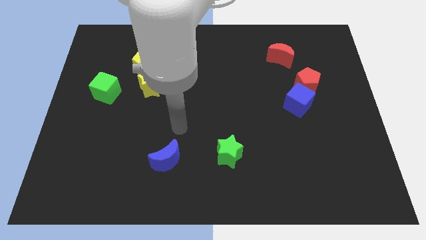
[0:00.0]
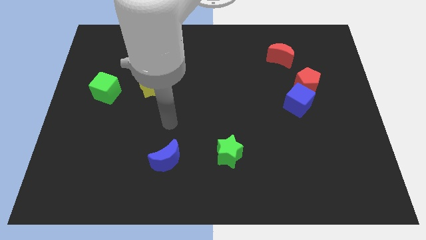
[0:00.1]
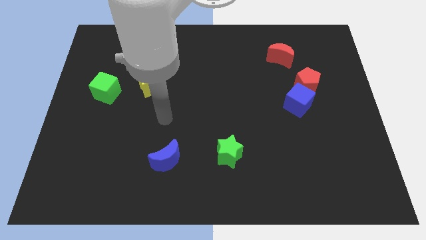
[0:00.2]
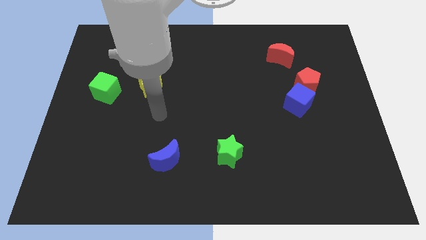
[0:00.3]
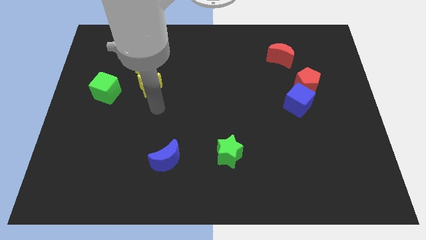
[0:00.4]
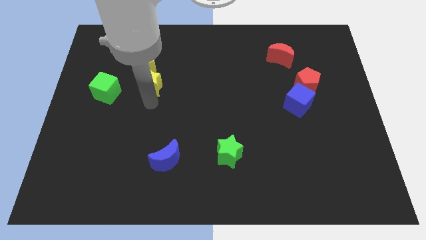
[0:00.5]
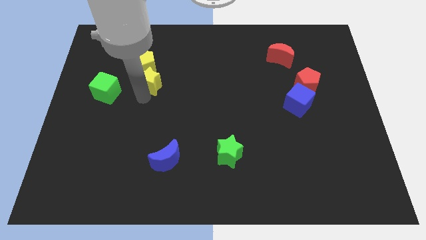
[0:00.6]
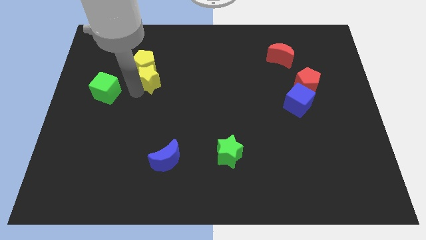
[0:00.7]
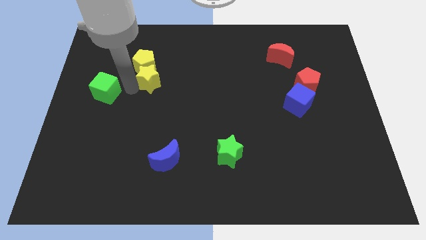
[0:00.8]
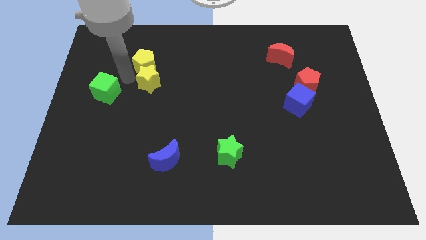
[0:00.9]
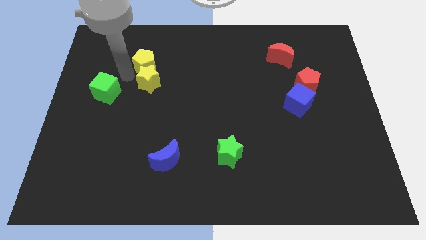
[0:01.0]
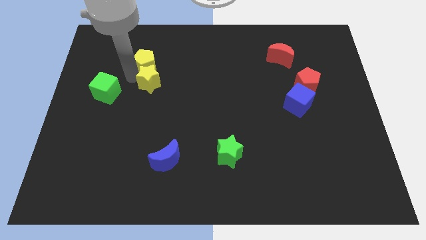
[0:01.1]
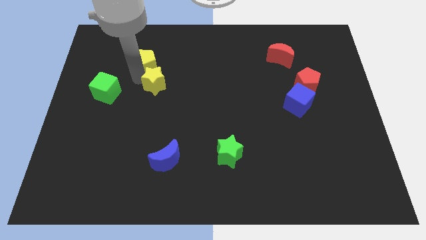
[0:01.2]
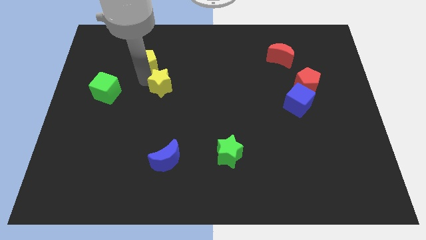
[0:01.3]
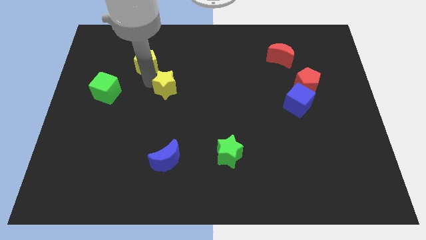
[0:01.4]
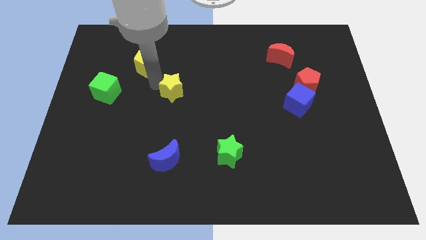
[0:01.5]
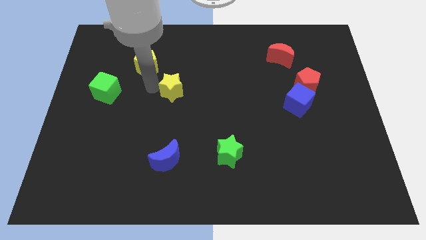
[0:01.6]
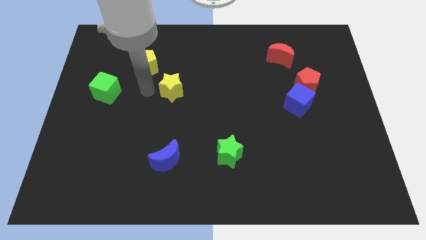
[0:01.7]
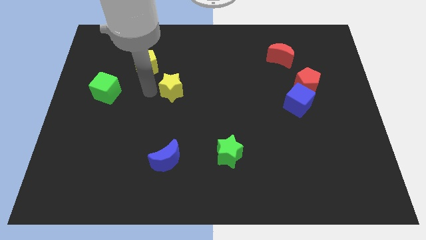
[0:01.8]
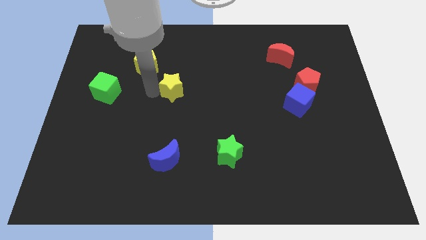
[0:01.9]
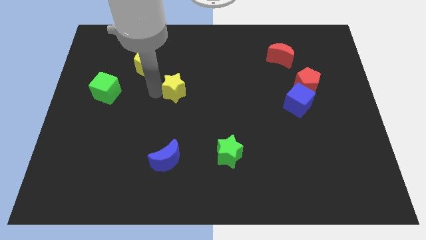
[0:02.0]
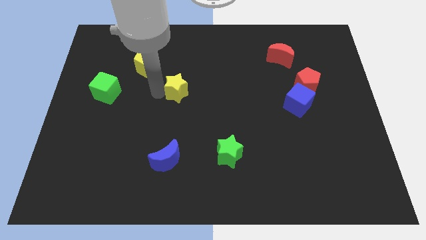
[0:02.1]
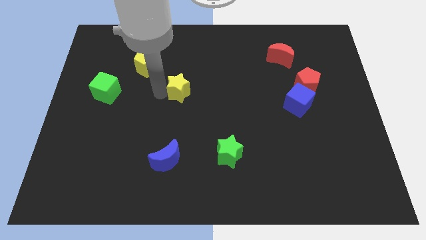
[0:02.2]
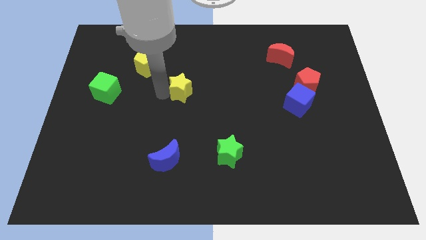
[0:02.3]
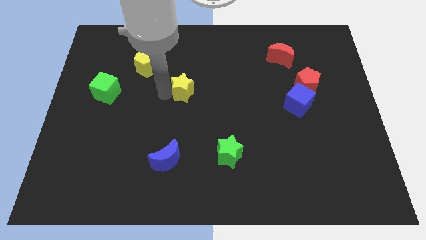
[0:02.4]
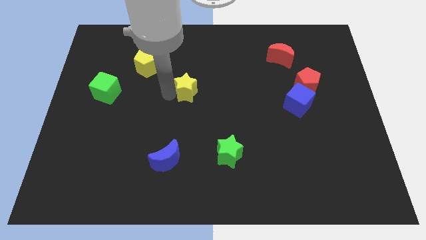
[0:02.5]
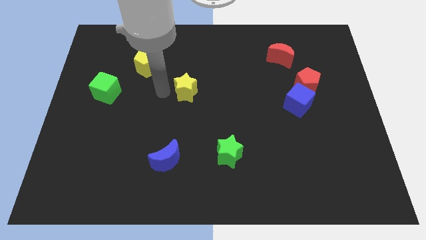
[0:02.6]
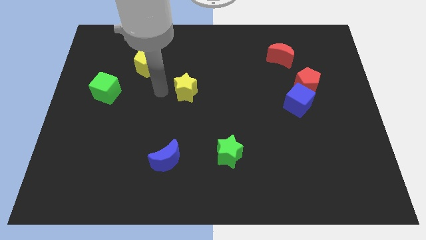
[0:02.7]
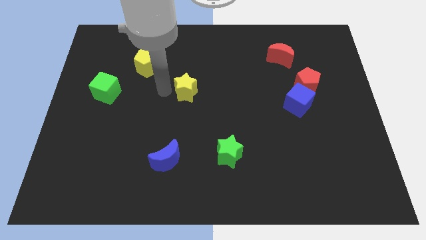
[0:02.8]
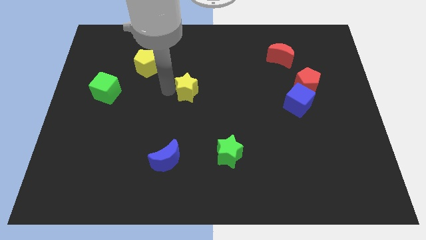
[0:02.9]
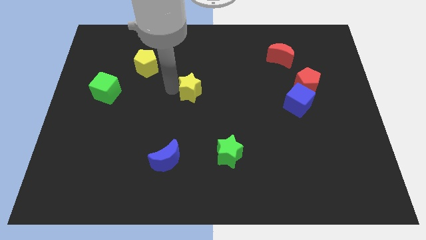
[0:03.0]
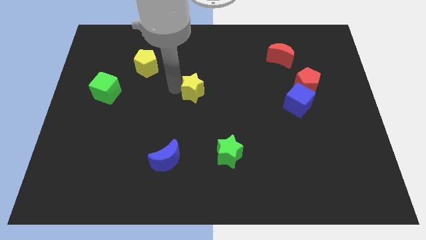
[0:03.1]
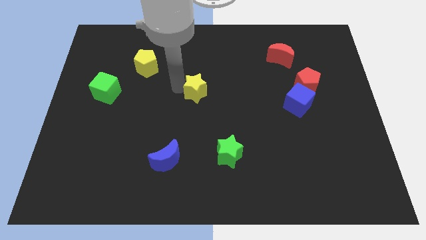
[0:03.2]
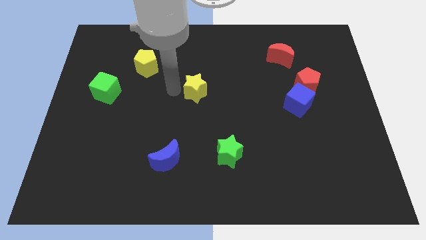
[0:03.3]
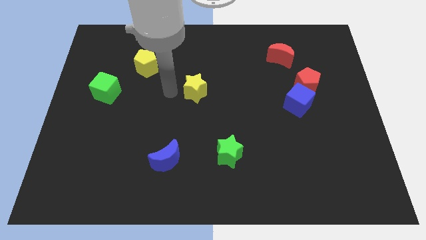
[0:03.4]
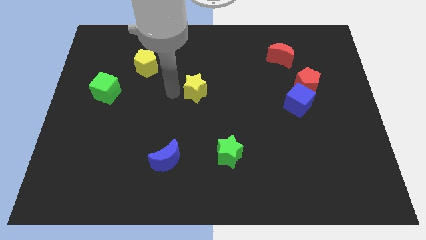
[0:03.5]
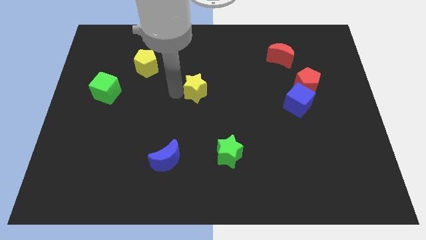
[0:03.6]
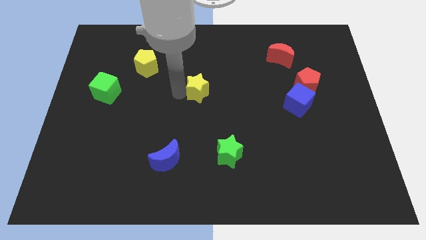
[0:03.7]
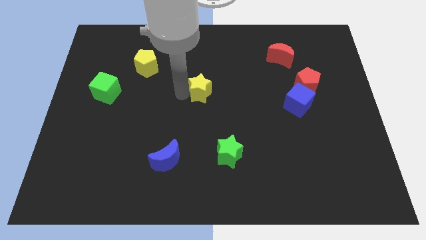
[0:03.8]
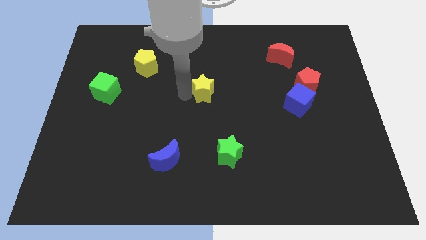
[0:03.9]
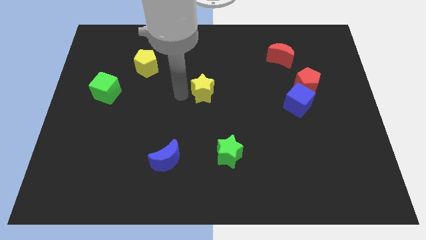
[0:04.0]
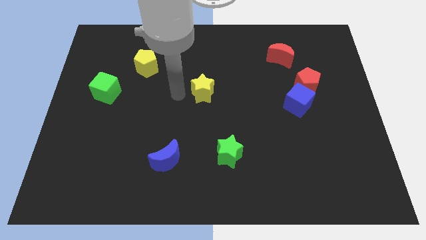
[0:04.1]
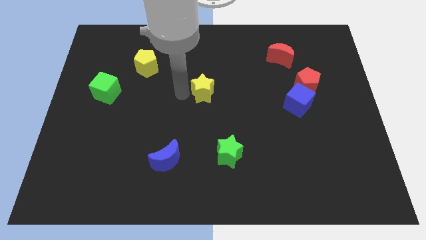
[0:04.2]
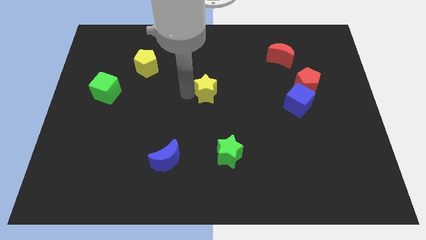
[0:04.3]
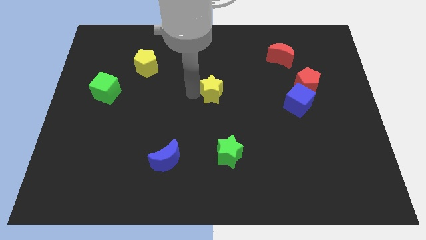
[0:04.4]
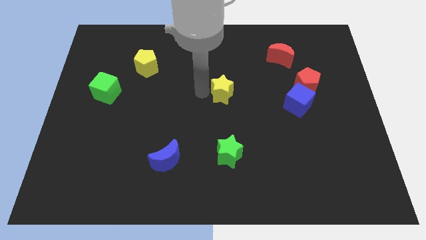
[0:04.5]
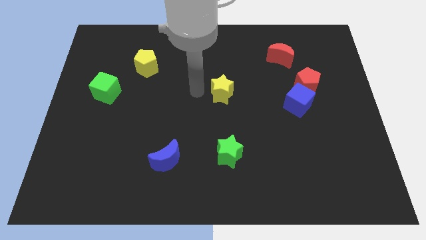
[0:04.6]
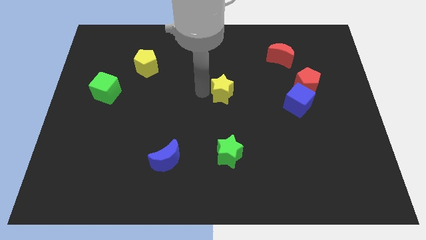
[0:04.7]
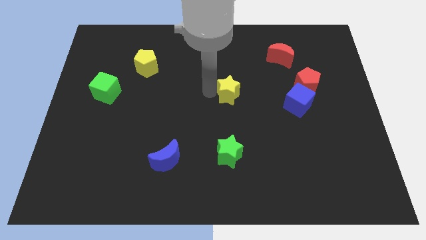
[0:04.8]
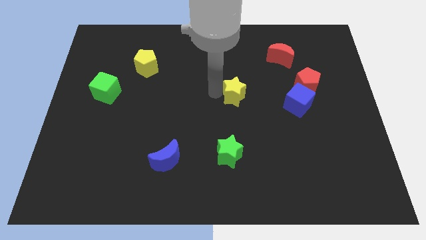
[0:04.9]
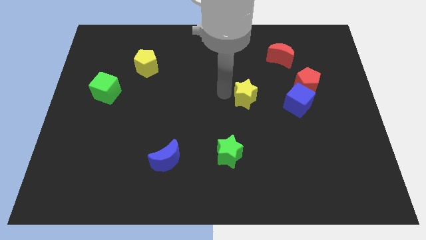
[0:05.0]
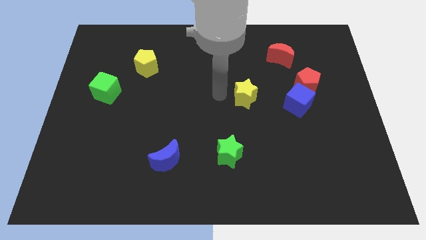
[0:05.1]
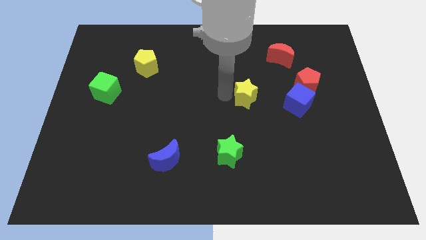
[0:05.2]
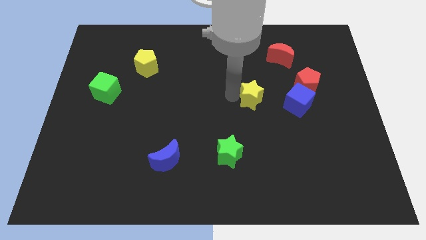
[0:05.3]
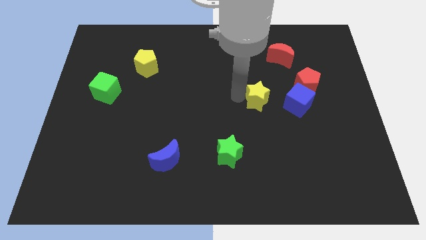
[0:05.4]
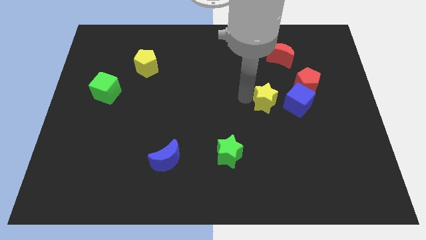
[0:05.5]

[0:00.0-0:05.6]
push the yellow star diagonally down and to the left of the red pentagon

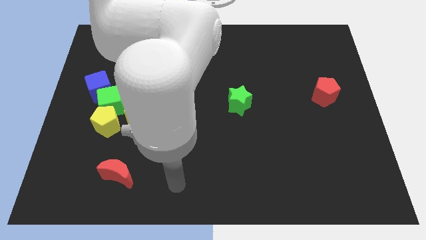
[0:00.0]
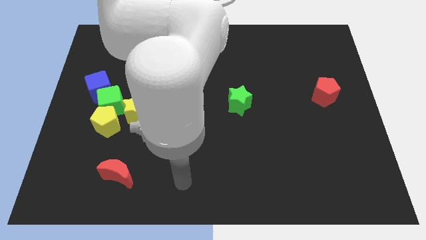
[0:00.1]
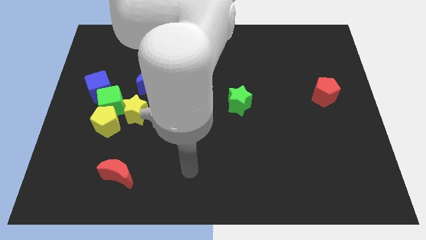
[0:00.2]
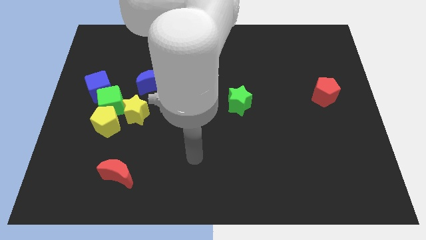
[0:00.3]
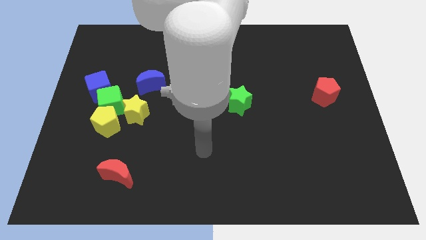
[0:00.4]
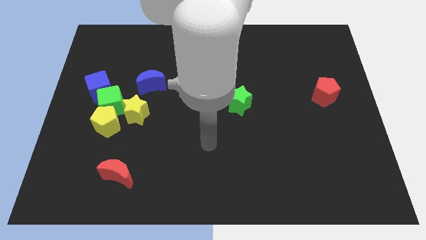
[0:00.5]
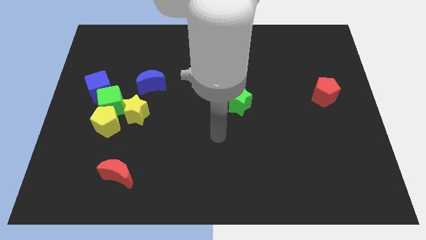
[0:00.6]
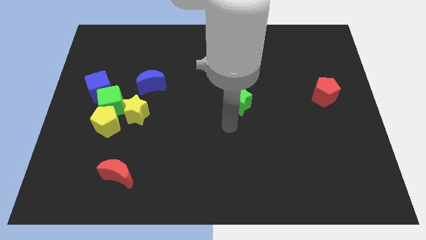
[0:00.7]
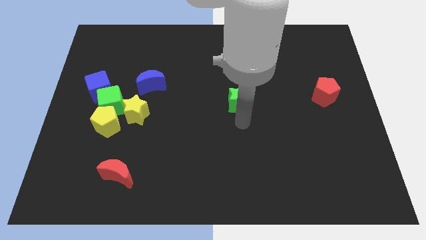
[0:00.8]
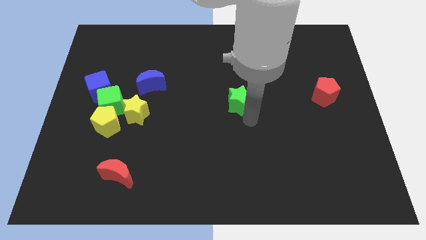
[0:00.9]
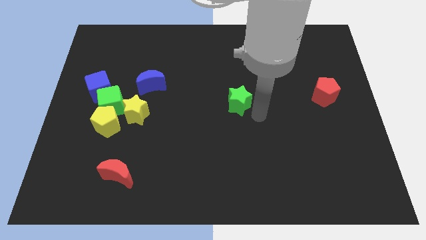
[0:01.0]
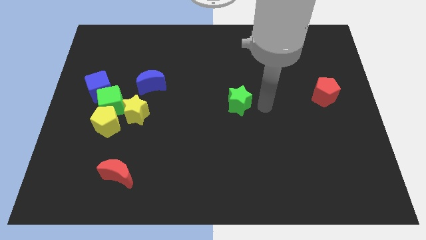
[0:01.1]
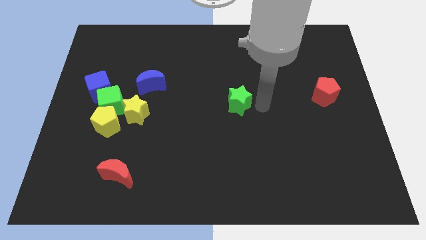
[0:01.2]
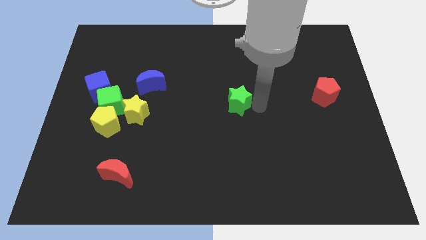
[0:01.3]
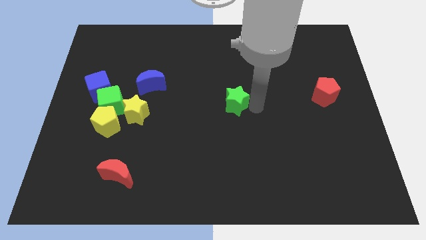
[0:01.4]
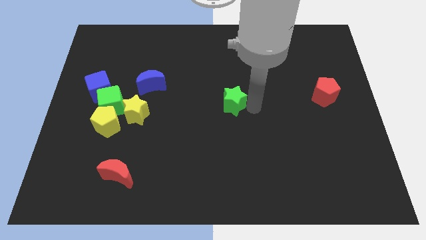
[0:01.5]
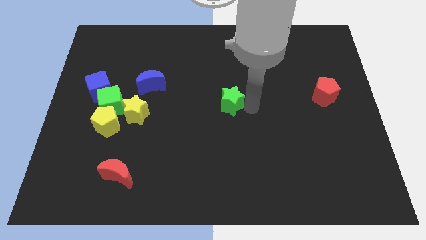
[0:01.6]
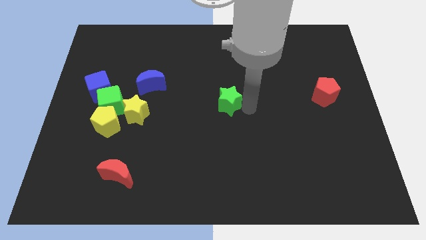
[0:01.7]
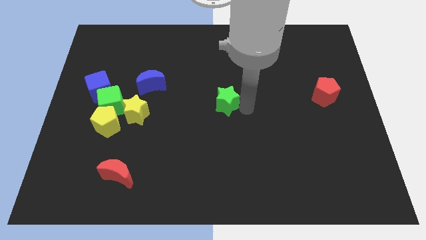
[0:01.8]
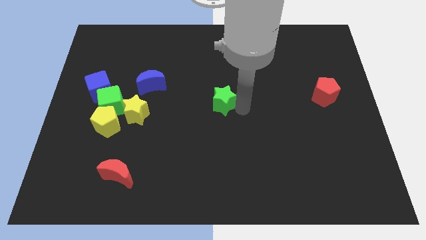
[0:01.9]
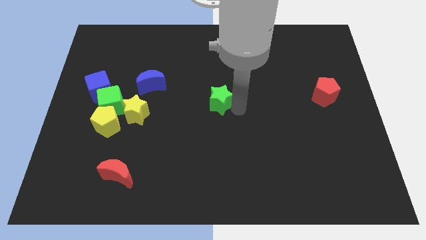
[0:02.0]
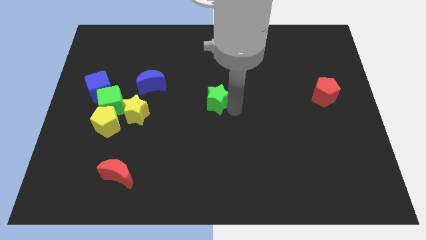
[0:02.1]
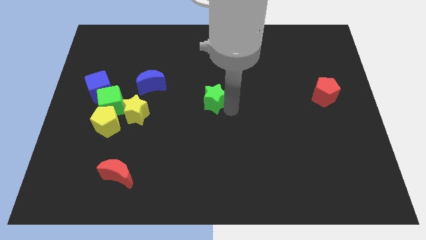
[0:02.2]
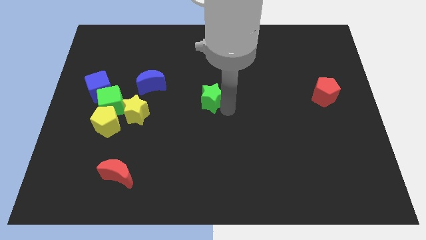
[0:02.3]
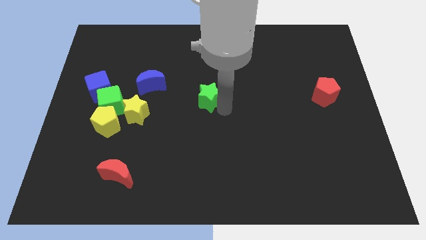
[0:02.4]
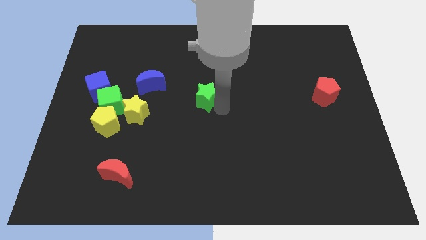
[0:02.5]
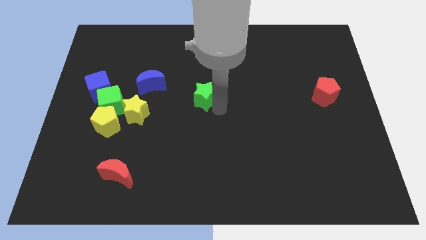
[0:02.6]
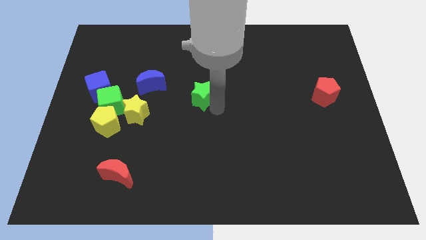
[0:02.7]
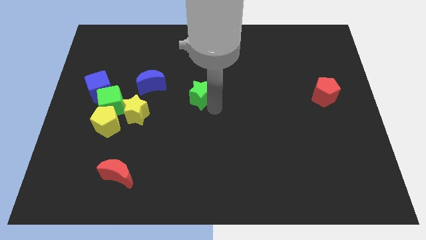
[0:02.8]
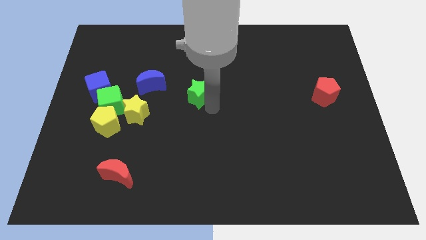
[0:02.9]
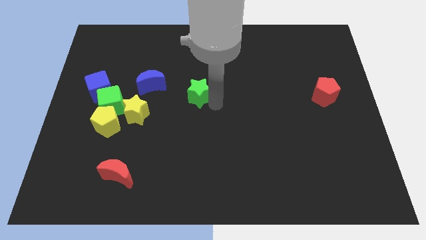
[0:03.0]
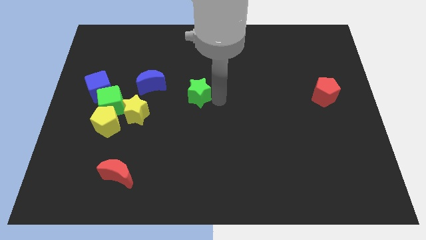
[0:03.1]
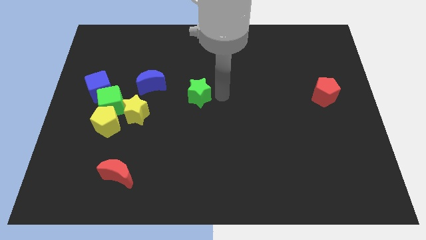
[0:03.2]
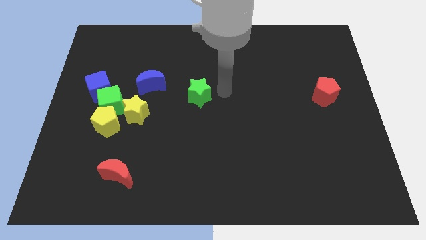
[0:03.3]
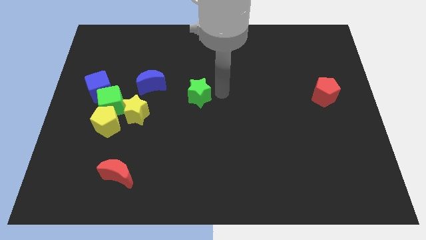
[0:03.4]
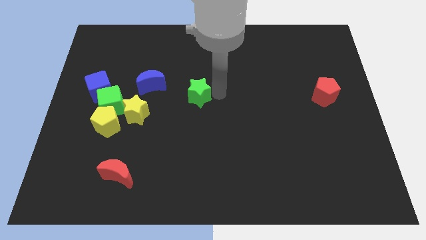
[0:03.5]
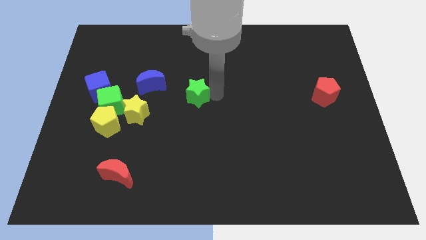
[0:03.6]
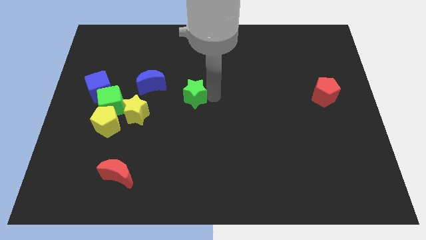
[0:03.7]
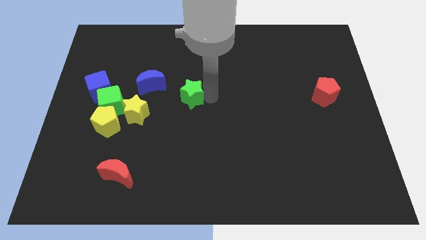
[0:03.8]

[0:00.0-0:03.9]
put the green star to the bottom right of the blue moon
